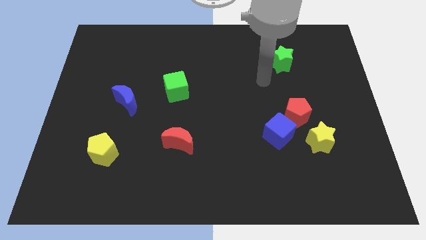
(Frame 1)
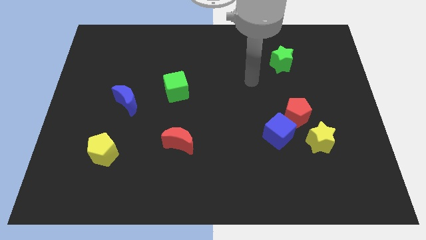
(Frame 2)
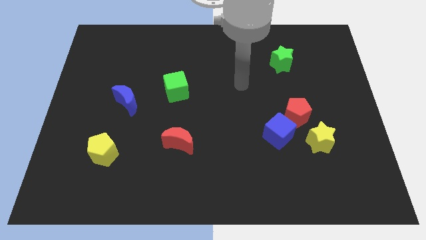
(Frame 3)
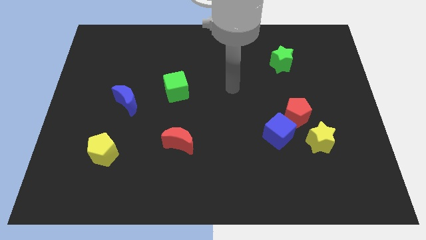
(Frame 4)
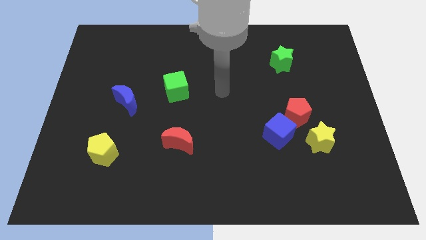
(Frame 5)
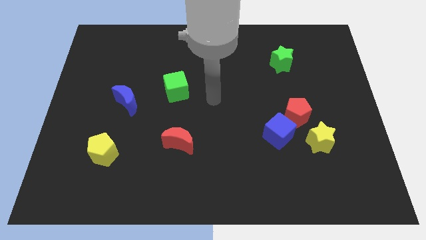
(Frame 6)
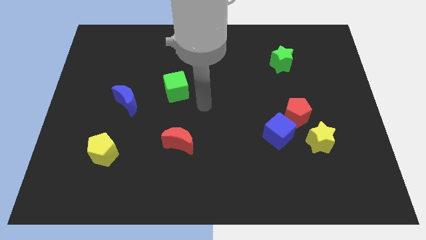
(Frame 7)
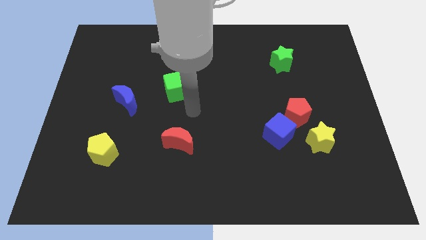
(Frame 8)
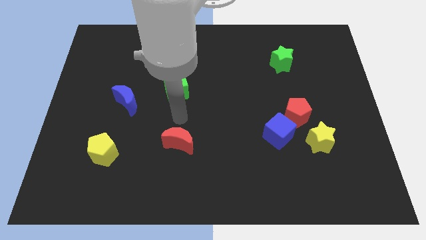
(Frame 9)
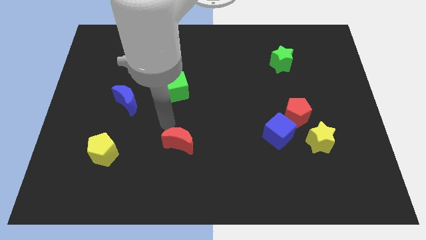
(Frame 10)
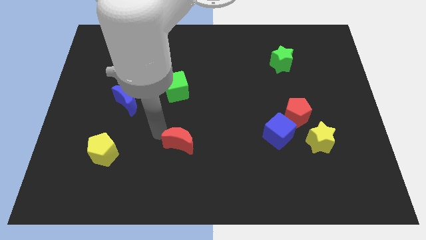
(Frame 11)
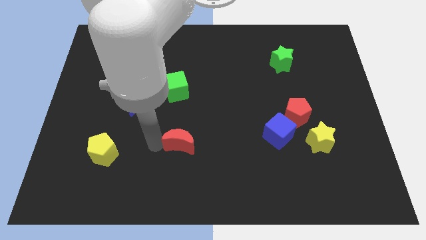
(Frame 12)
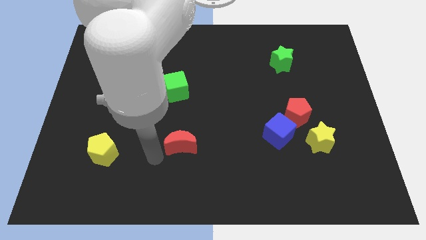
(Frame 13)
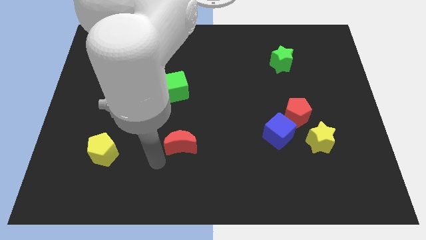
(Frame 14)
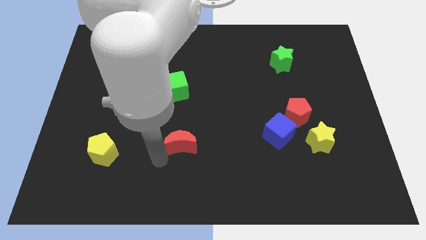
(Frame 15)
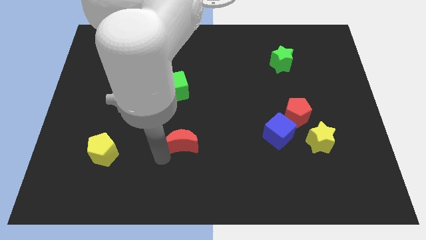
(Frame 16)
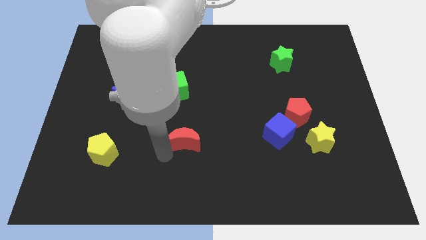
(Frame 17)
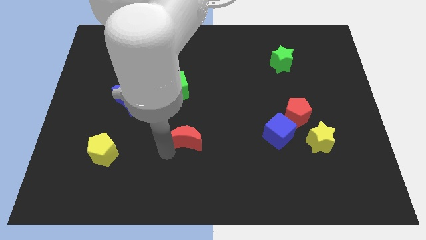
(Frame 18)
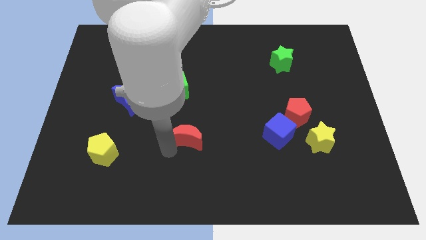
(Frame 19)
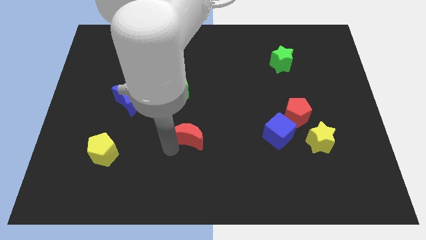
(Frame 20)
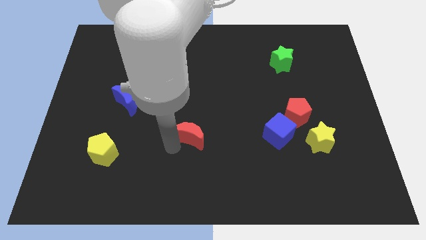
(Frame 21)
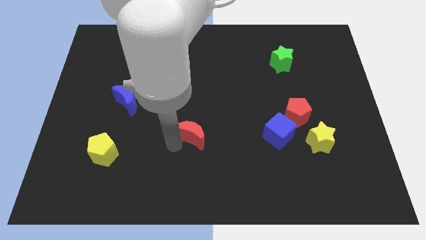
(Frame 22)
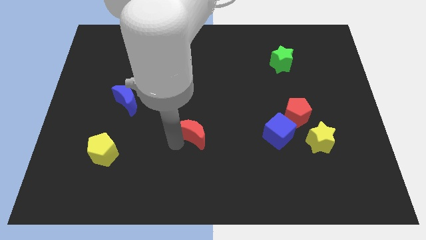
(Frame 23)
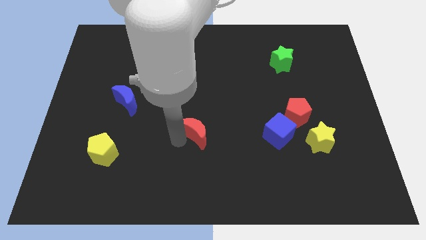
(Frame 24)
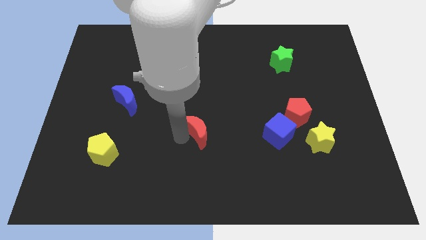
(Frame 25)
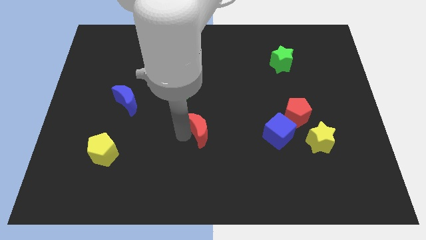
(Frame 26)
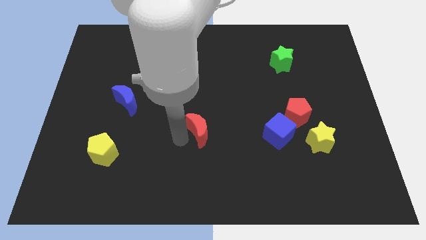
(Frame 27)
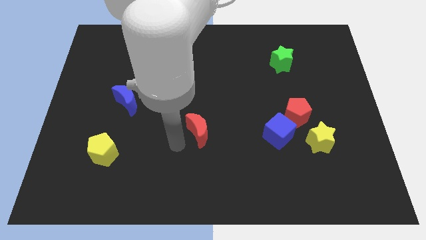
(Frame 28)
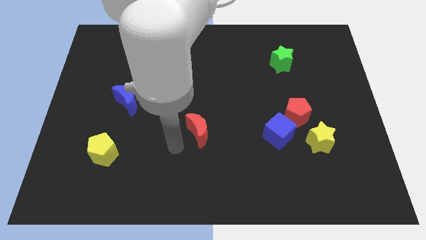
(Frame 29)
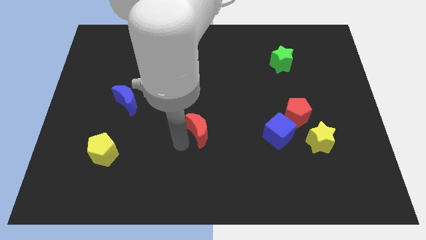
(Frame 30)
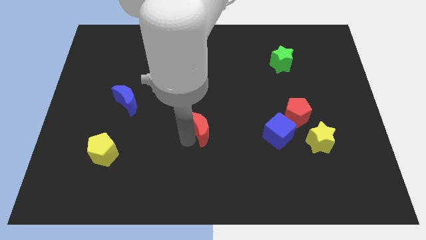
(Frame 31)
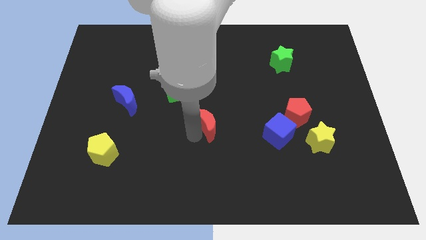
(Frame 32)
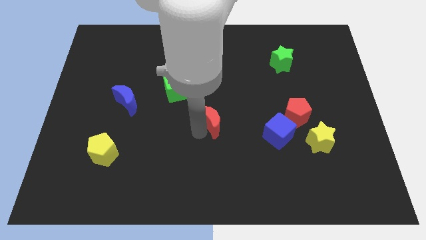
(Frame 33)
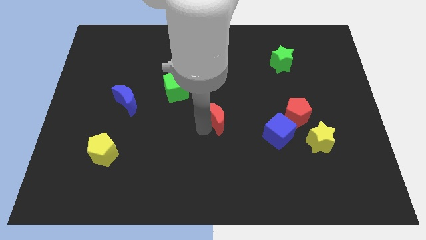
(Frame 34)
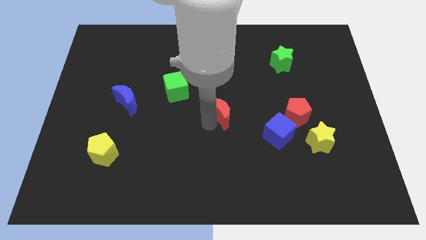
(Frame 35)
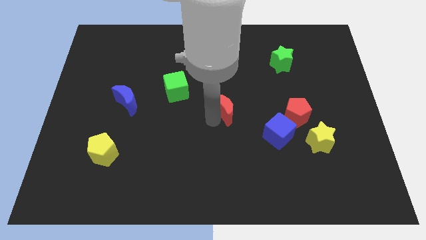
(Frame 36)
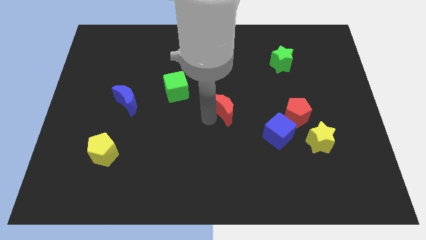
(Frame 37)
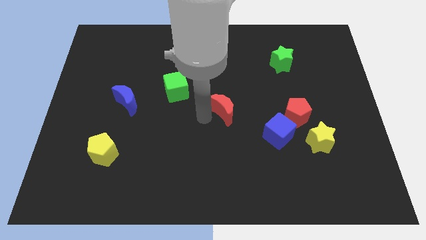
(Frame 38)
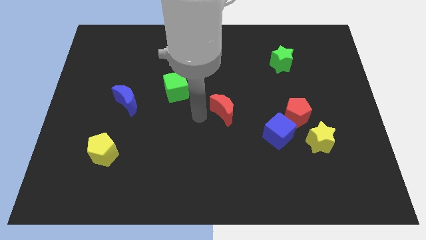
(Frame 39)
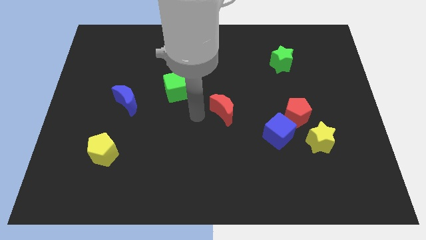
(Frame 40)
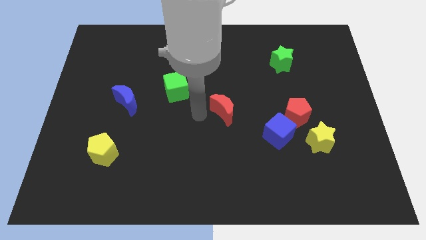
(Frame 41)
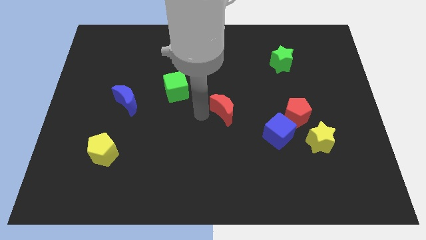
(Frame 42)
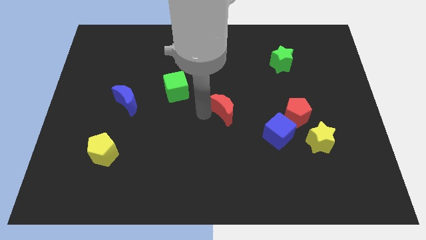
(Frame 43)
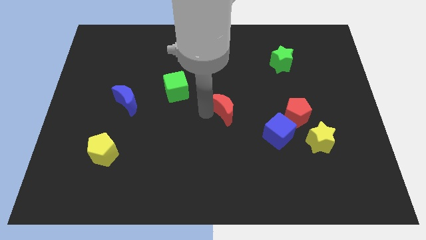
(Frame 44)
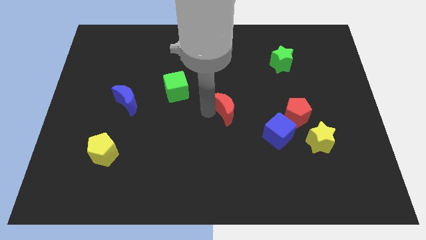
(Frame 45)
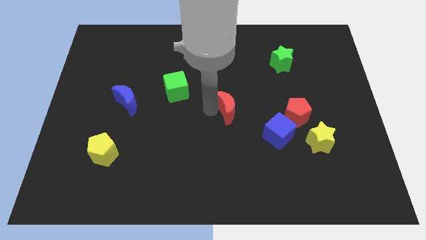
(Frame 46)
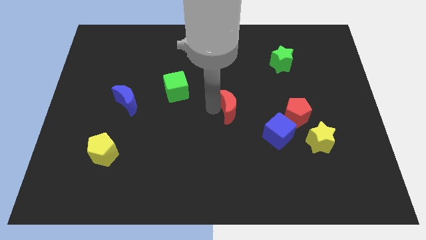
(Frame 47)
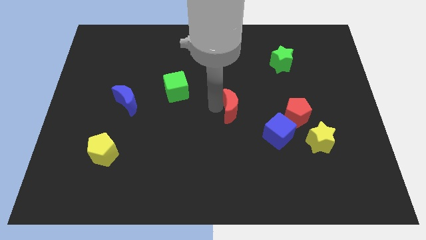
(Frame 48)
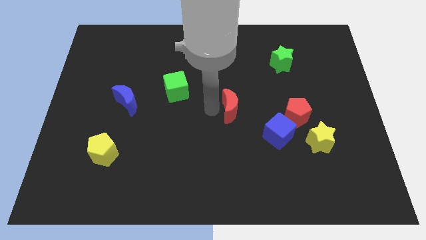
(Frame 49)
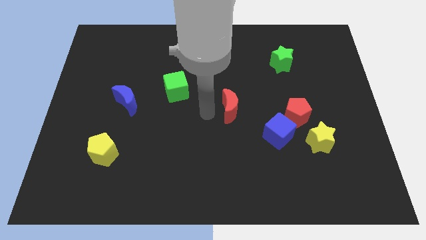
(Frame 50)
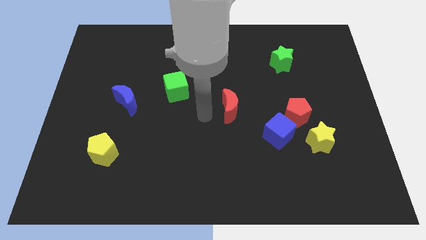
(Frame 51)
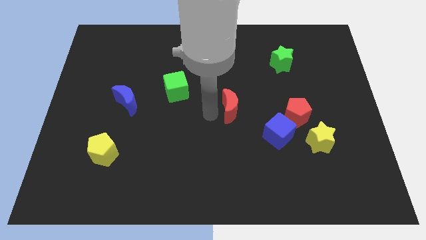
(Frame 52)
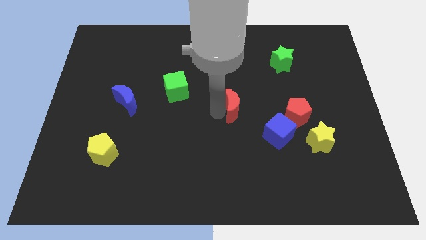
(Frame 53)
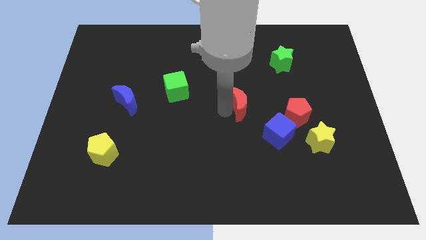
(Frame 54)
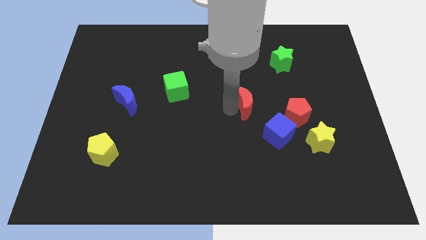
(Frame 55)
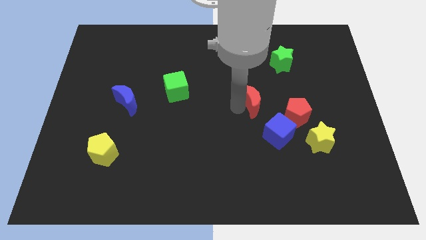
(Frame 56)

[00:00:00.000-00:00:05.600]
push the red moon to the top left side of the red pentagon
